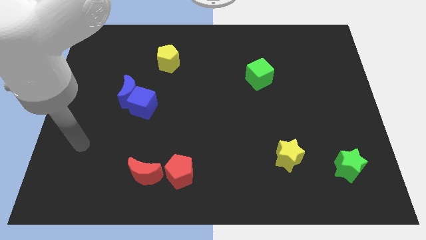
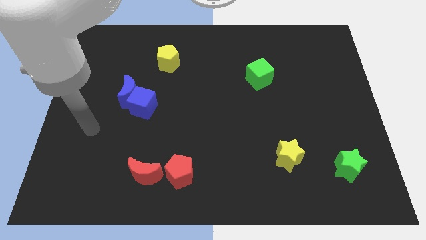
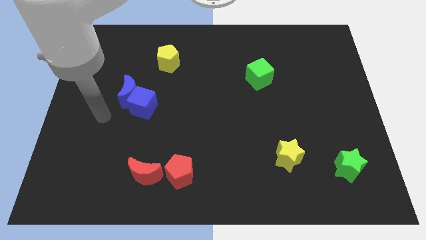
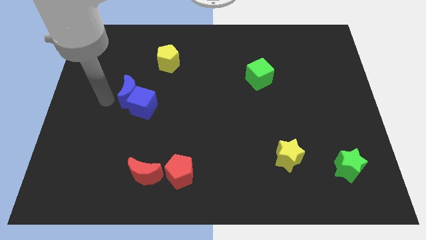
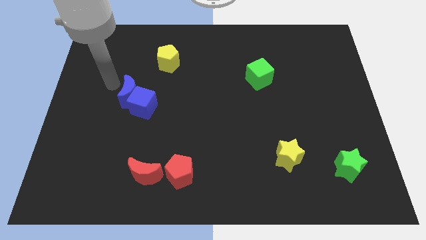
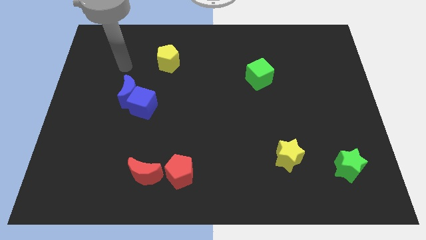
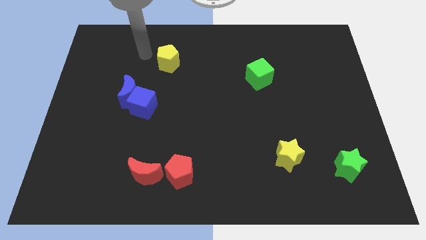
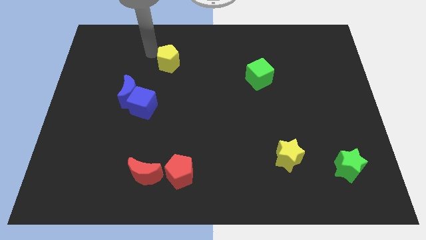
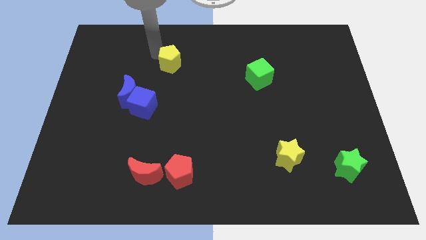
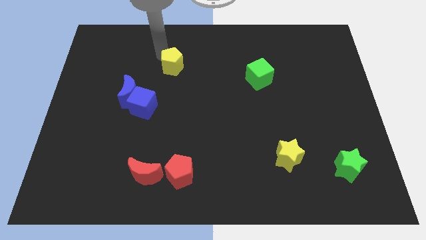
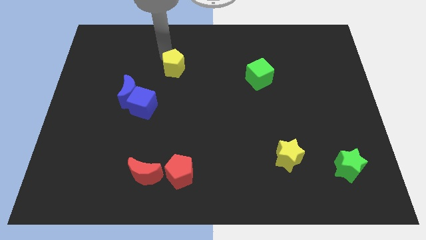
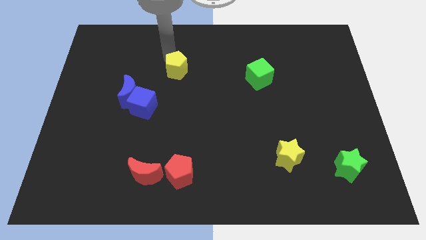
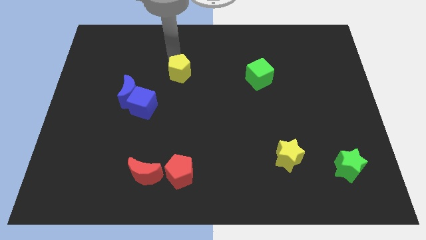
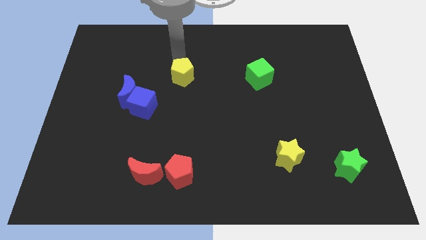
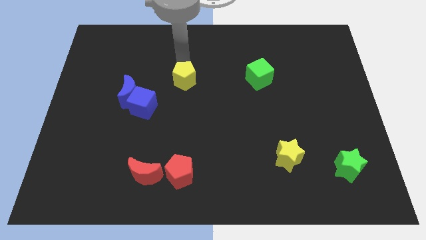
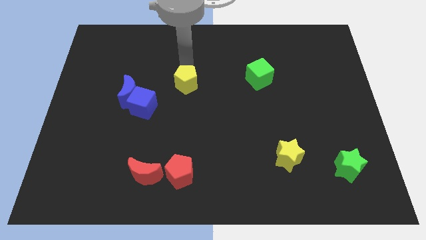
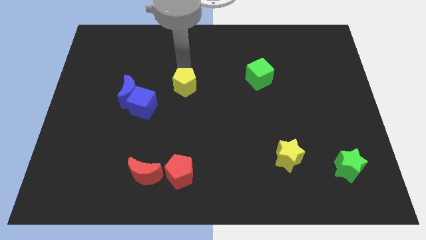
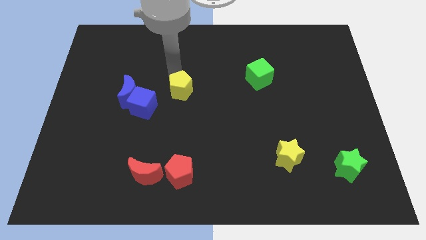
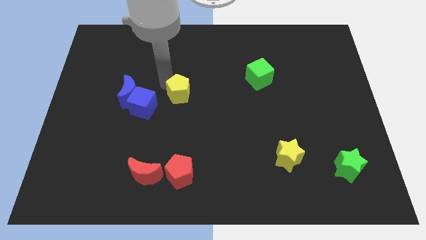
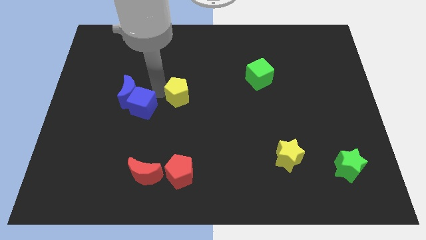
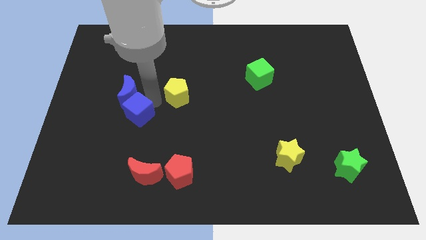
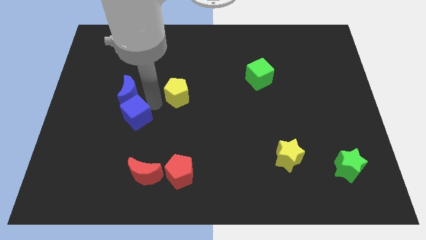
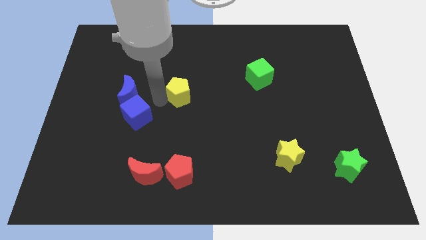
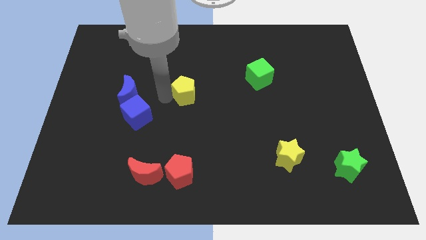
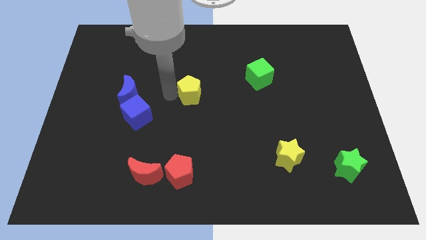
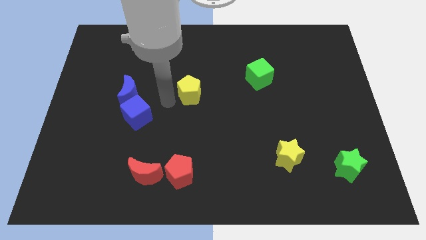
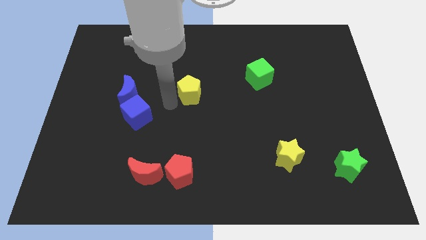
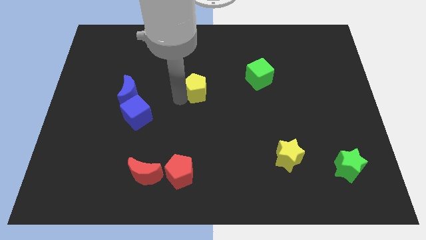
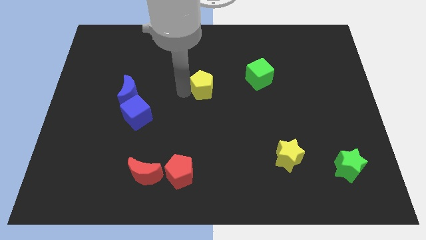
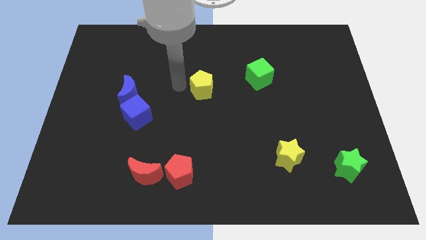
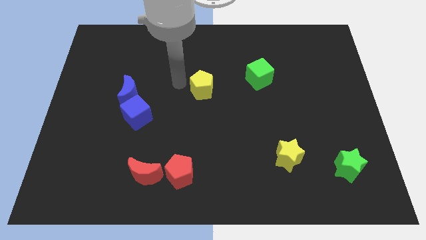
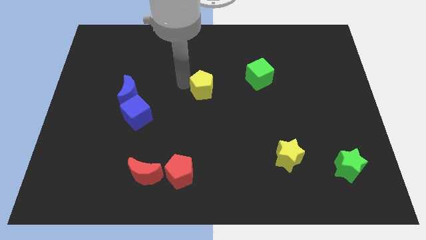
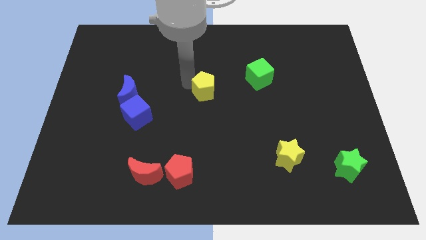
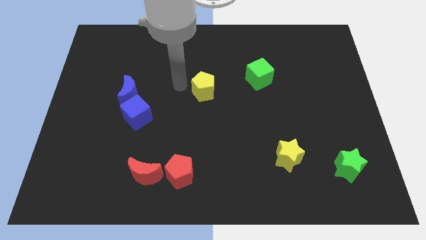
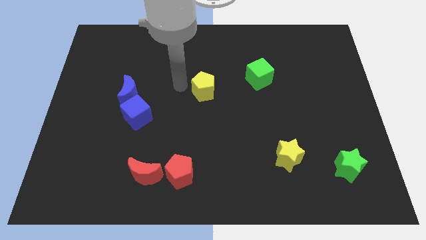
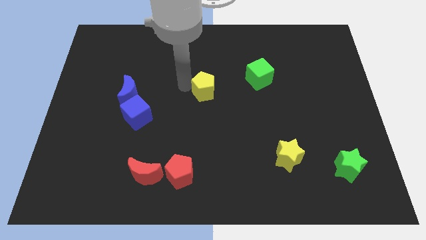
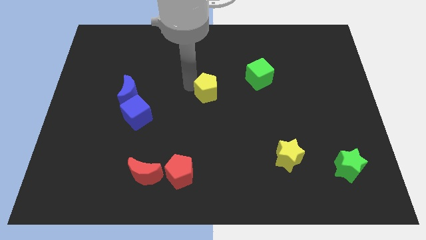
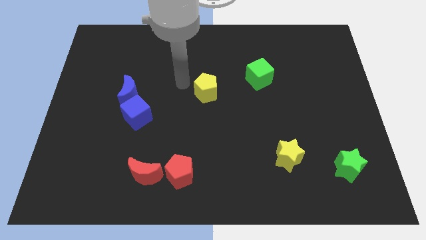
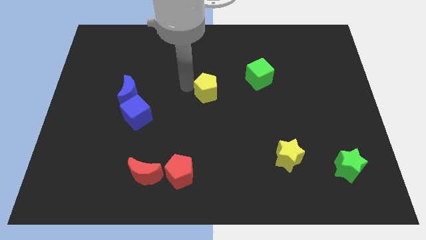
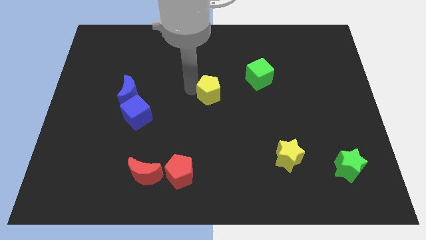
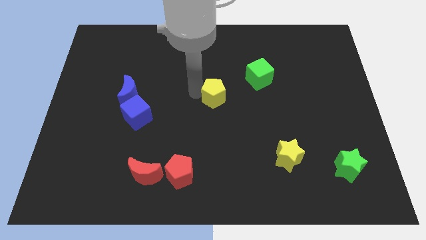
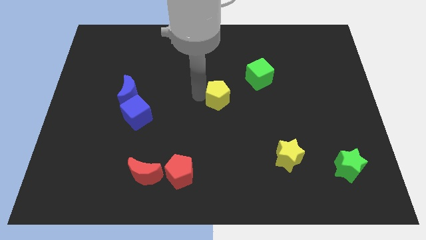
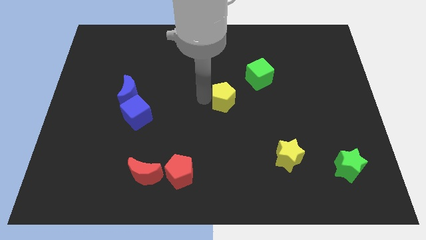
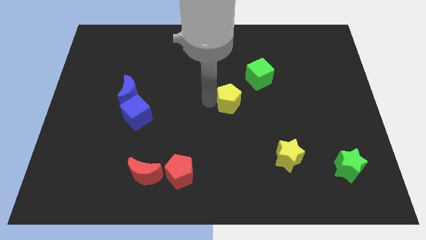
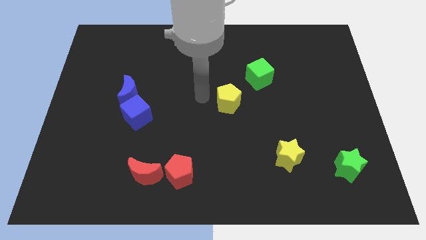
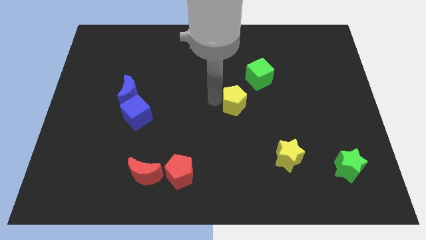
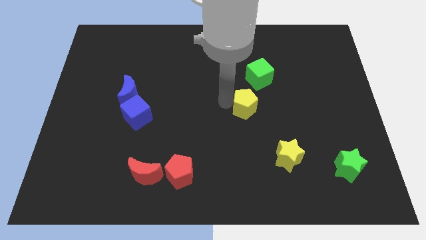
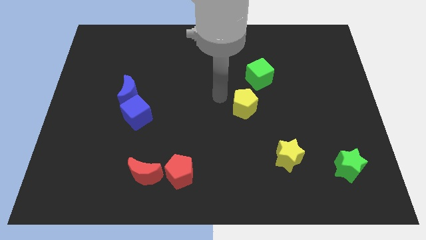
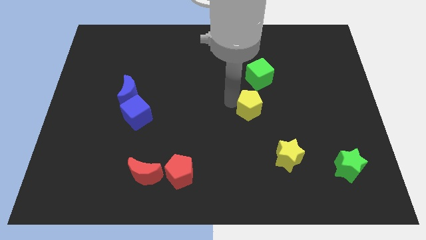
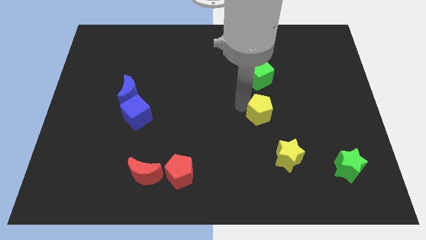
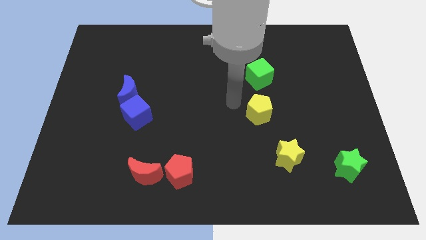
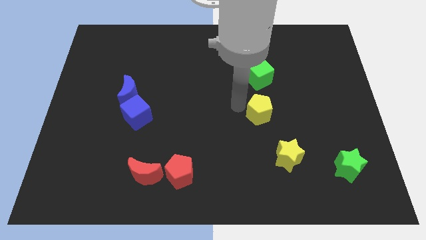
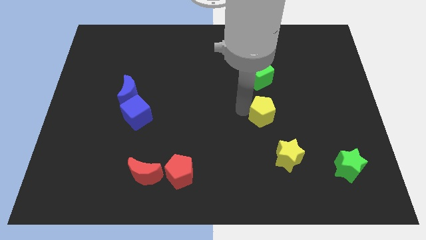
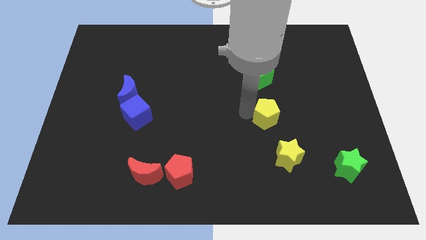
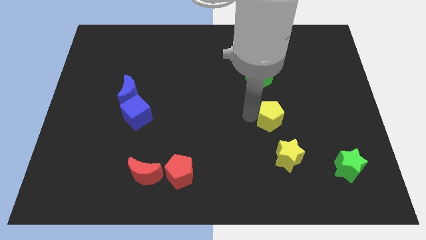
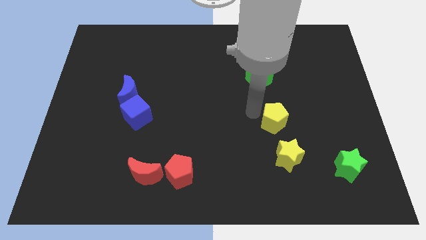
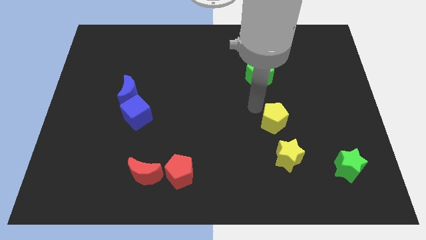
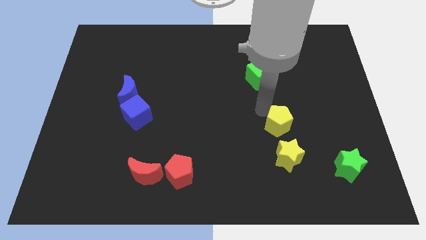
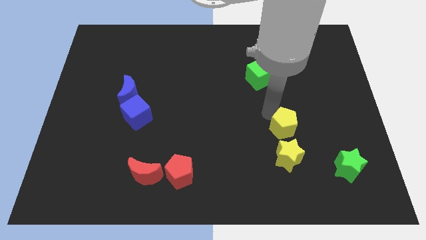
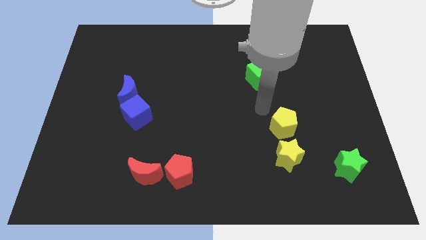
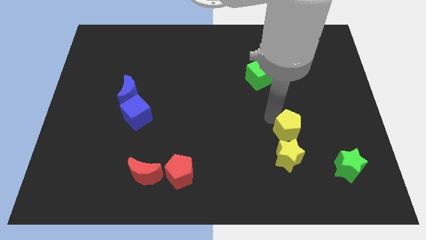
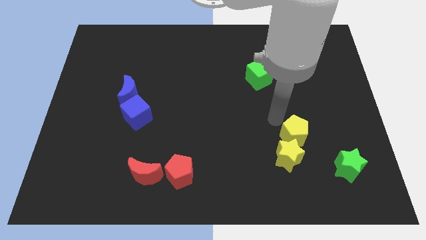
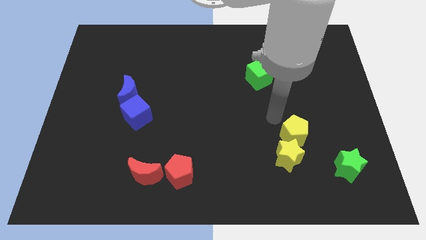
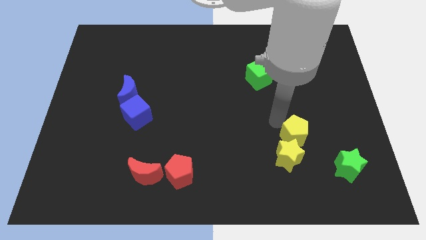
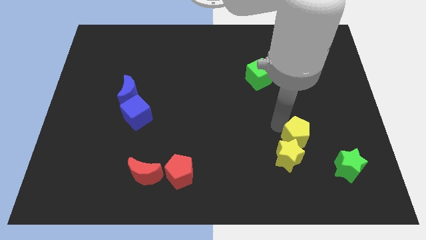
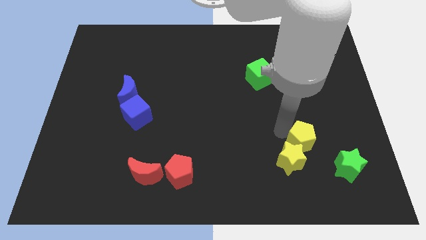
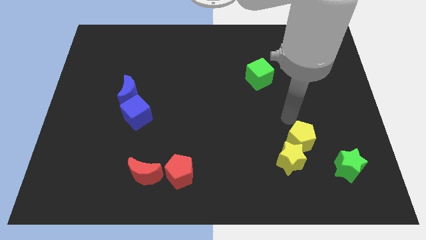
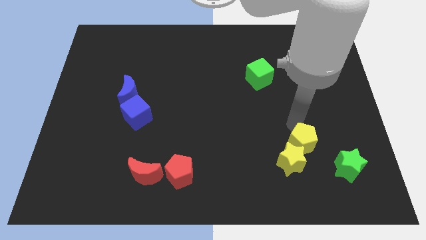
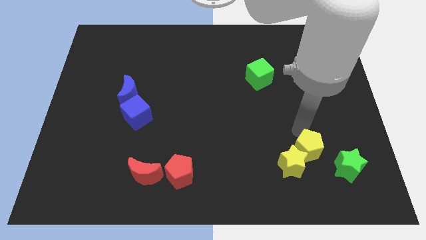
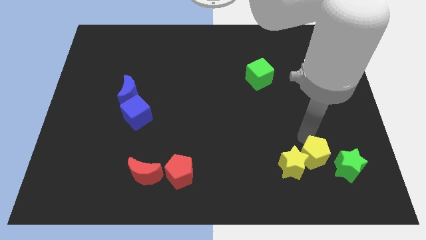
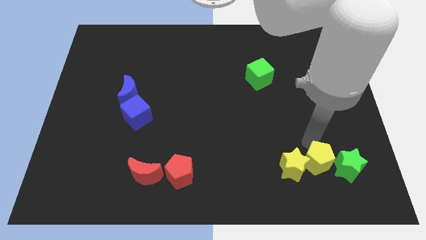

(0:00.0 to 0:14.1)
slide the yellow pentagon to the bottom right side of the yellow star
